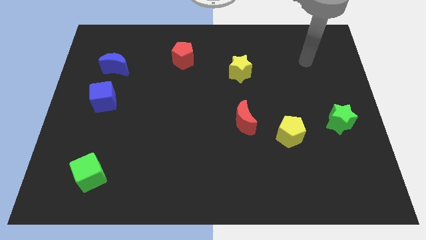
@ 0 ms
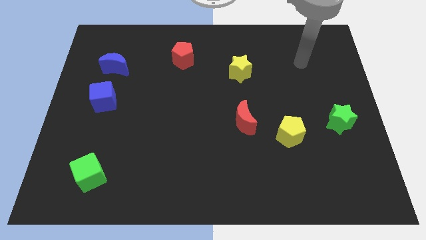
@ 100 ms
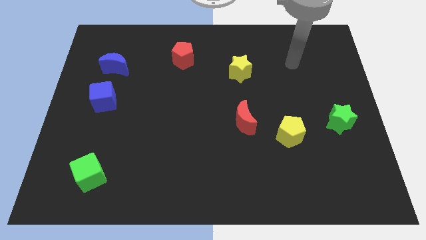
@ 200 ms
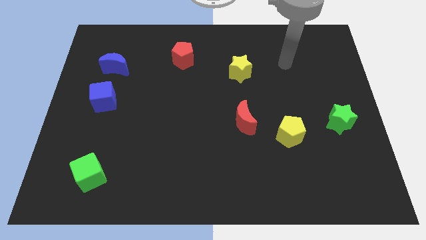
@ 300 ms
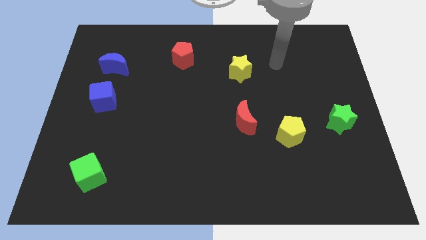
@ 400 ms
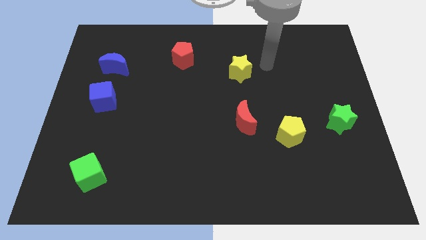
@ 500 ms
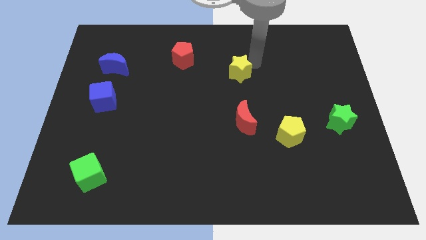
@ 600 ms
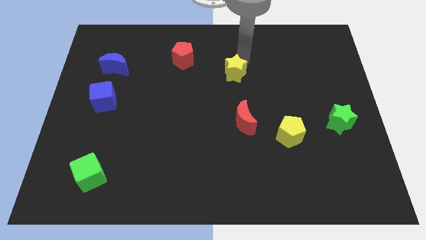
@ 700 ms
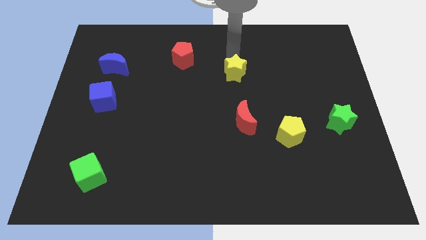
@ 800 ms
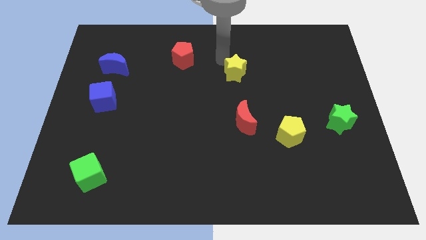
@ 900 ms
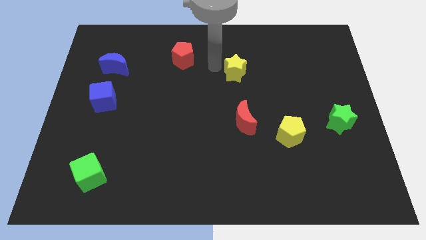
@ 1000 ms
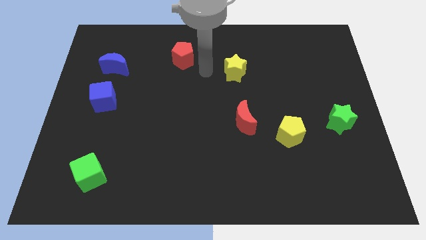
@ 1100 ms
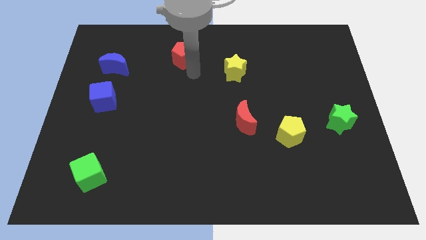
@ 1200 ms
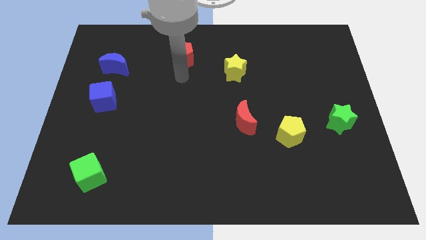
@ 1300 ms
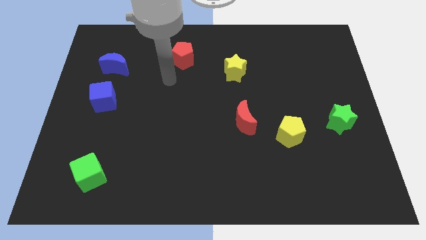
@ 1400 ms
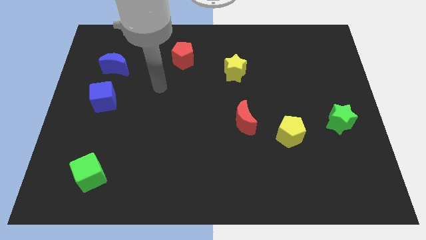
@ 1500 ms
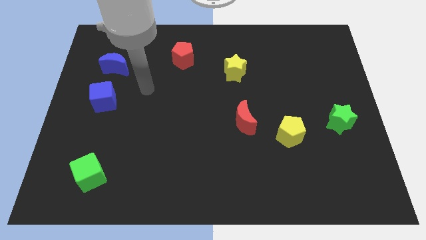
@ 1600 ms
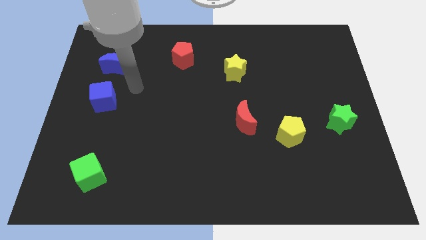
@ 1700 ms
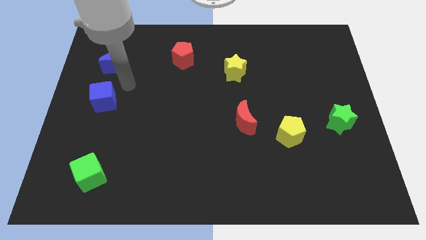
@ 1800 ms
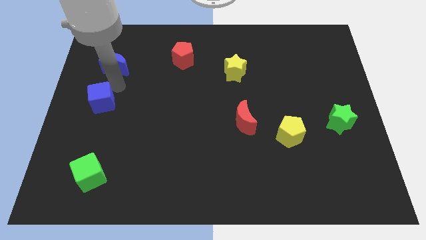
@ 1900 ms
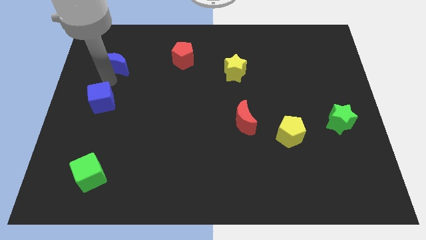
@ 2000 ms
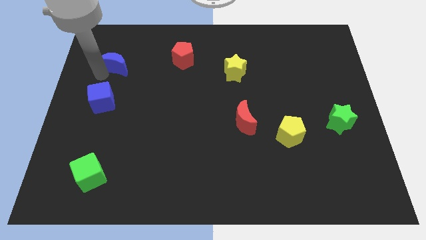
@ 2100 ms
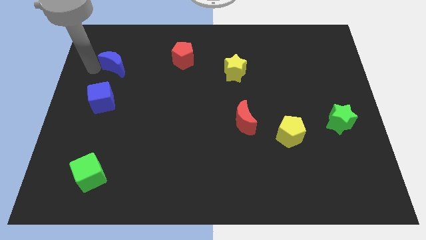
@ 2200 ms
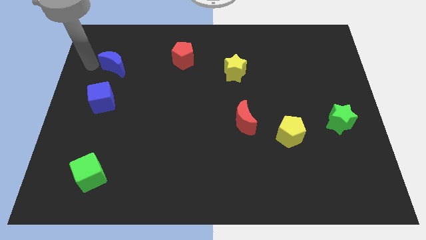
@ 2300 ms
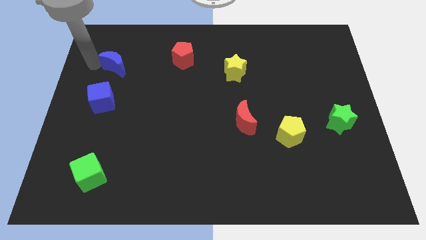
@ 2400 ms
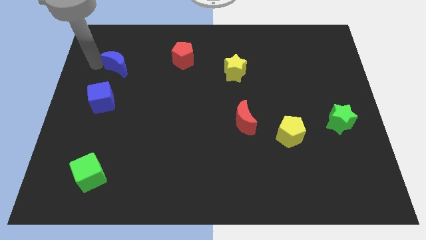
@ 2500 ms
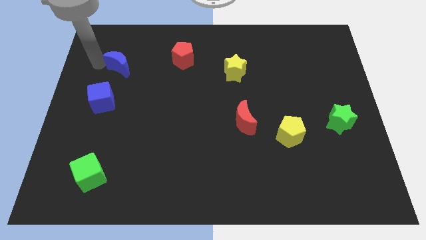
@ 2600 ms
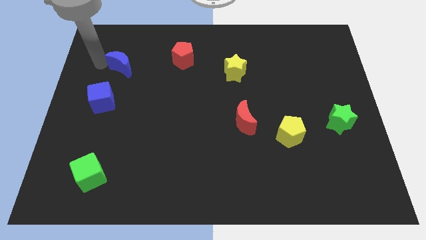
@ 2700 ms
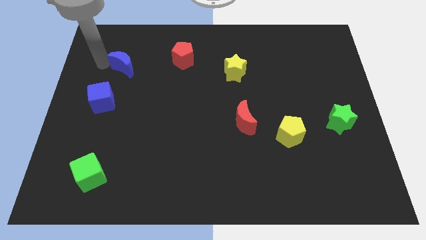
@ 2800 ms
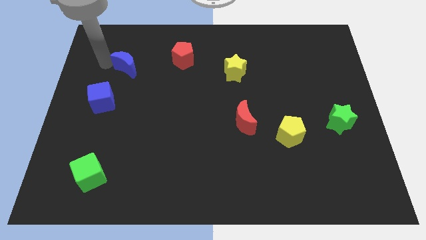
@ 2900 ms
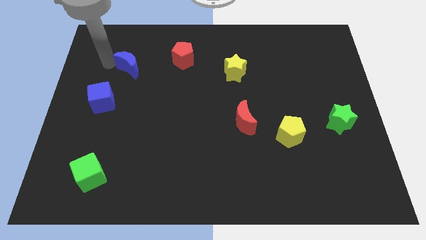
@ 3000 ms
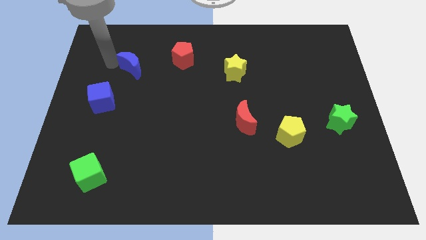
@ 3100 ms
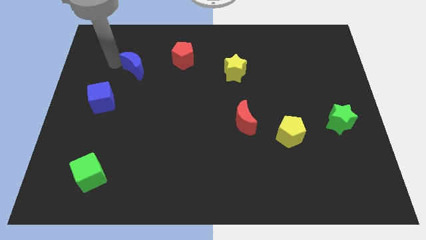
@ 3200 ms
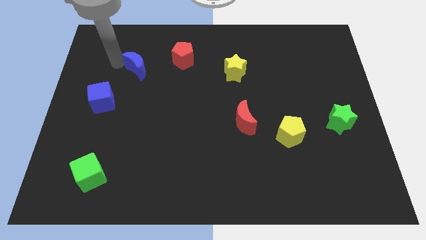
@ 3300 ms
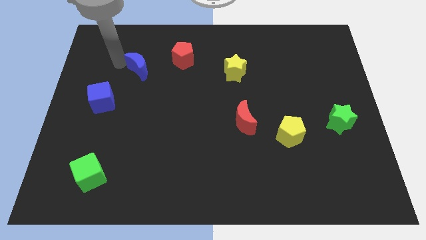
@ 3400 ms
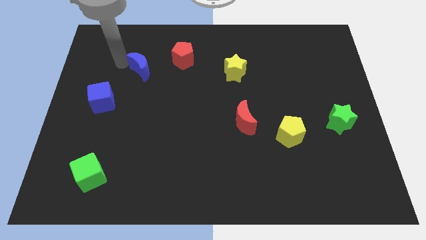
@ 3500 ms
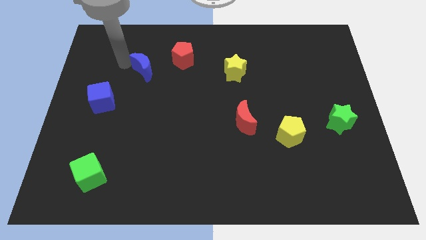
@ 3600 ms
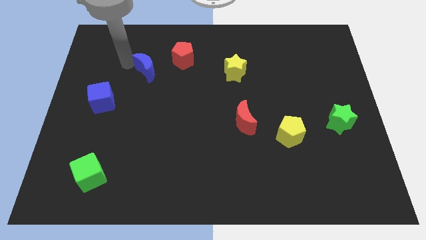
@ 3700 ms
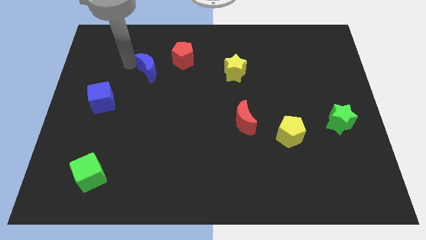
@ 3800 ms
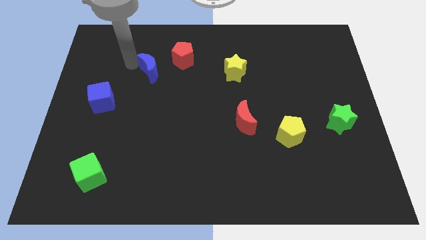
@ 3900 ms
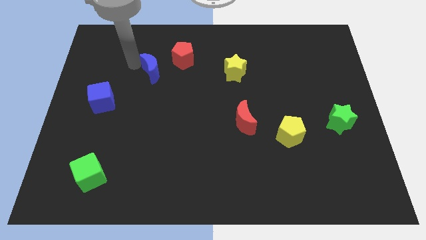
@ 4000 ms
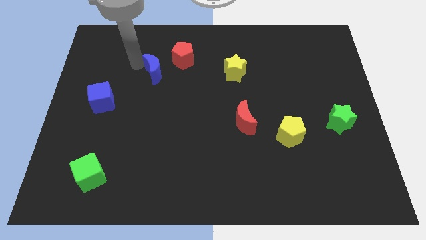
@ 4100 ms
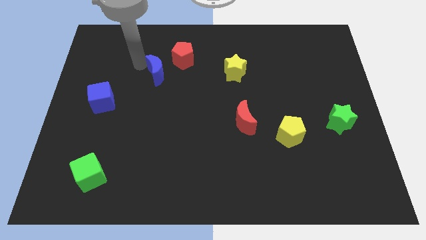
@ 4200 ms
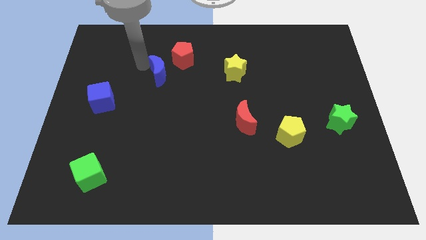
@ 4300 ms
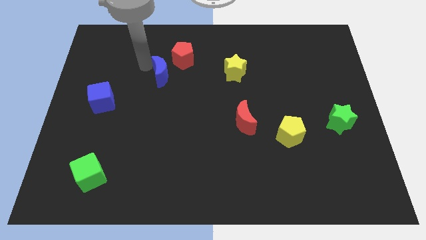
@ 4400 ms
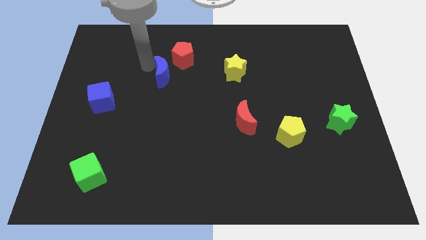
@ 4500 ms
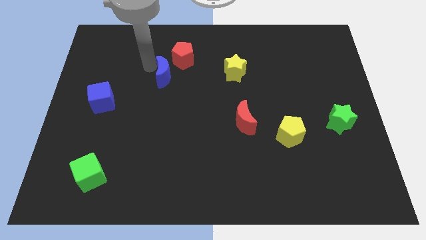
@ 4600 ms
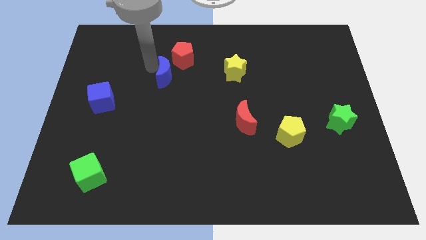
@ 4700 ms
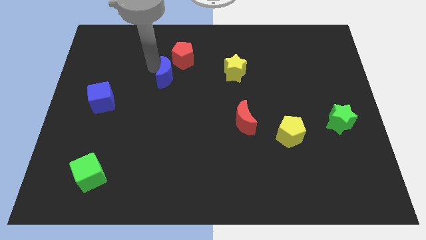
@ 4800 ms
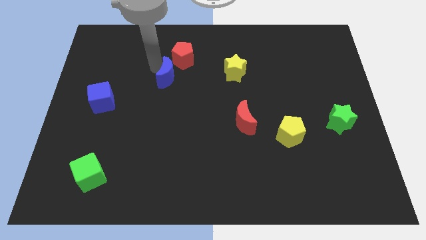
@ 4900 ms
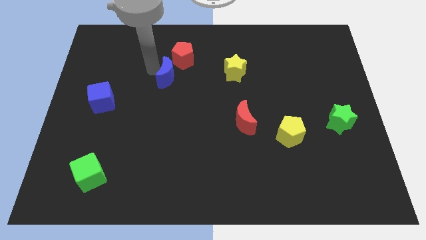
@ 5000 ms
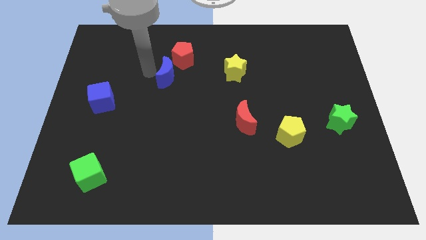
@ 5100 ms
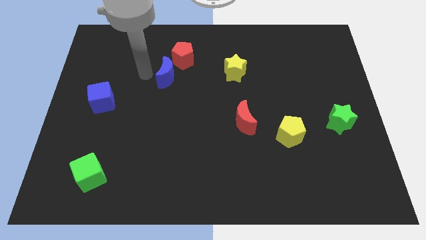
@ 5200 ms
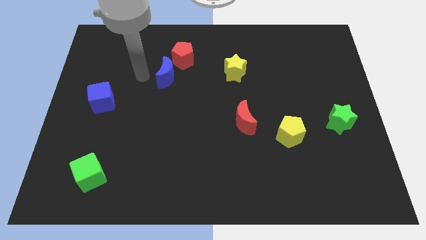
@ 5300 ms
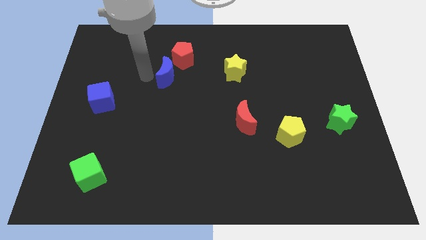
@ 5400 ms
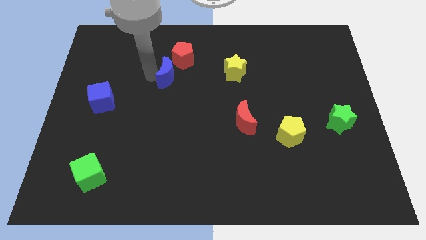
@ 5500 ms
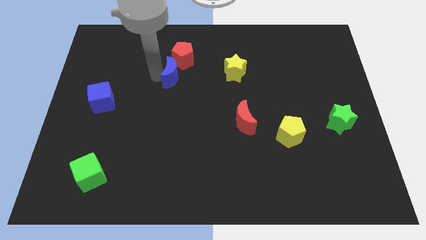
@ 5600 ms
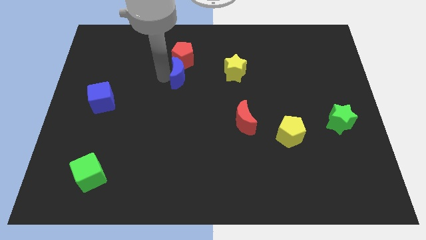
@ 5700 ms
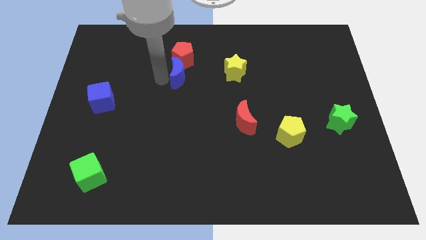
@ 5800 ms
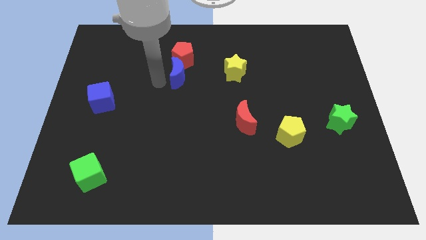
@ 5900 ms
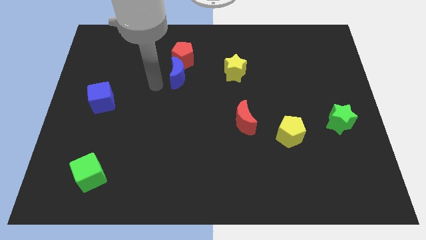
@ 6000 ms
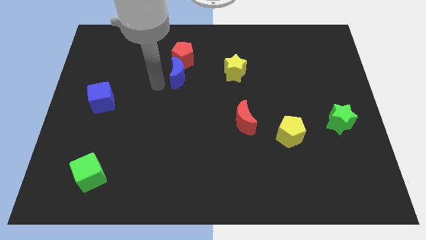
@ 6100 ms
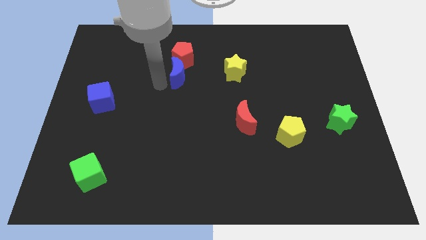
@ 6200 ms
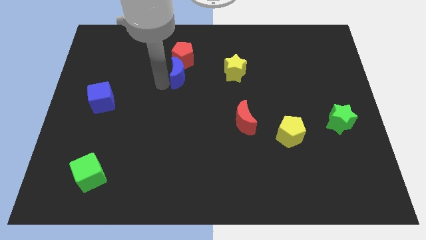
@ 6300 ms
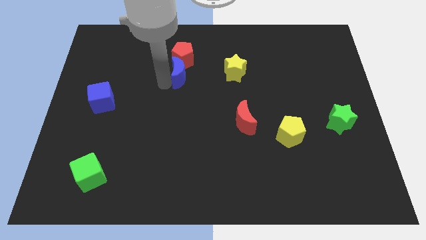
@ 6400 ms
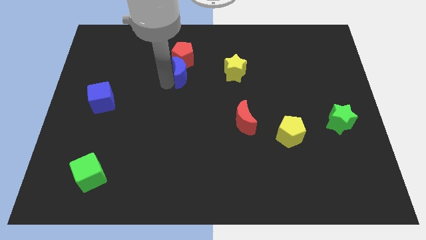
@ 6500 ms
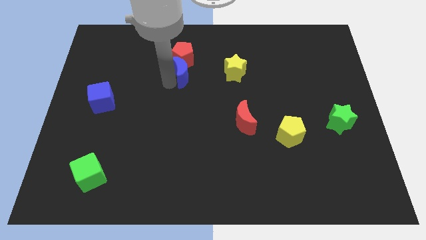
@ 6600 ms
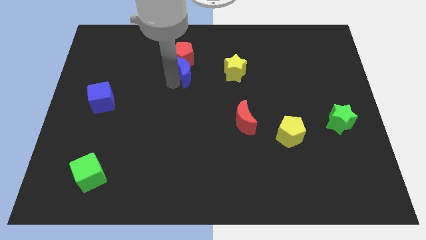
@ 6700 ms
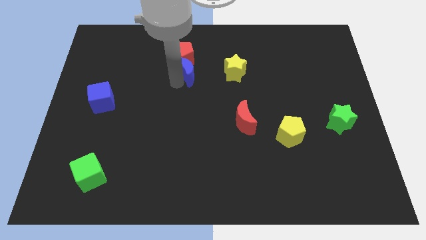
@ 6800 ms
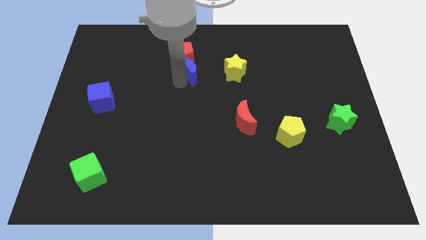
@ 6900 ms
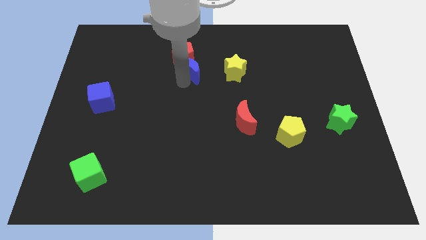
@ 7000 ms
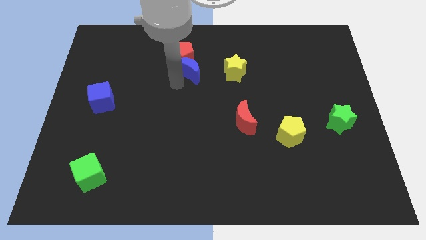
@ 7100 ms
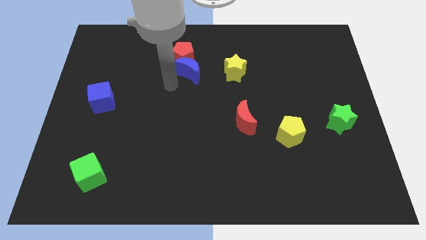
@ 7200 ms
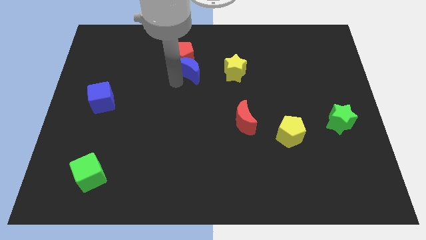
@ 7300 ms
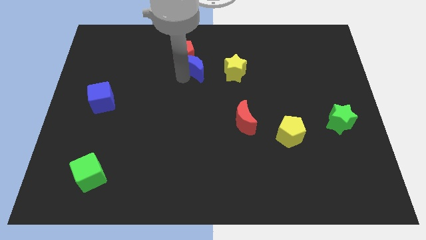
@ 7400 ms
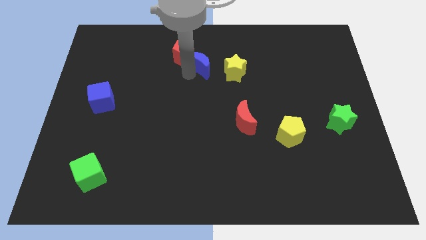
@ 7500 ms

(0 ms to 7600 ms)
put the blue moon diagonally up and to the left of the yellow star
